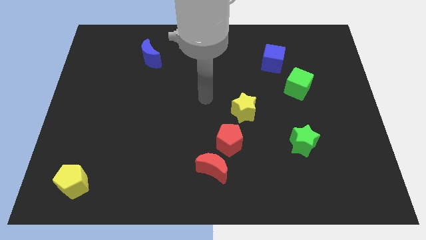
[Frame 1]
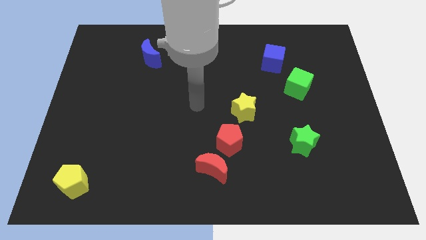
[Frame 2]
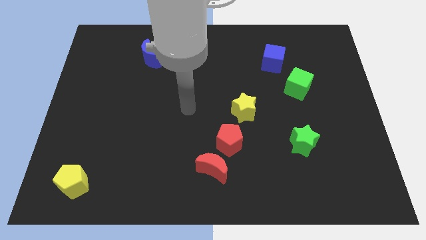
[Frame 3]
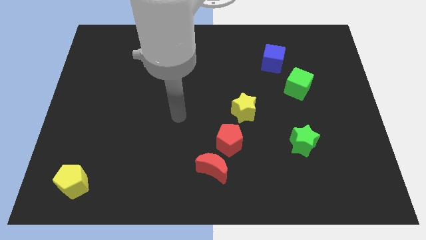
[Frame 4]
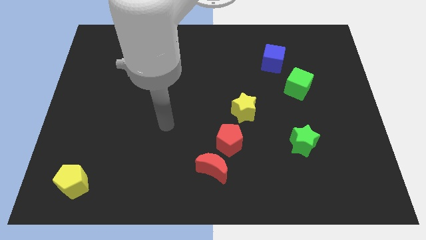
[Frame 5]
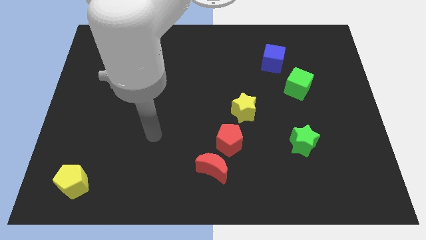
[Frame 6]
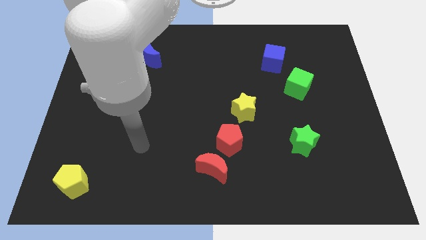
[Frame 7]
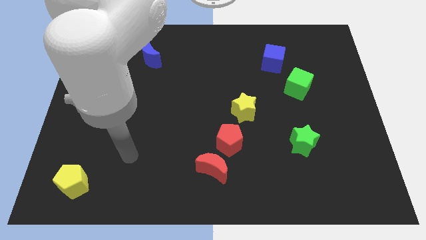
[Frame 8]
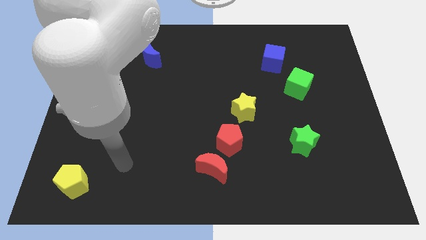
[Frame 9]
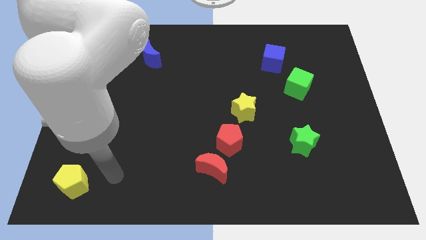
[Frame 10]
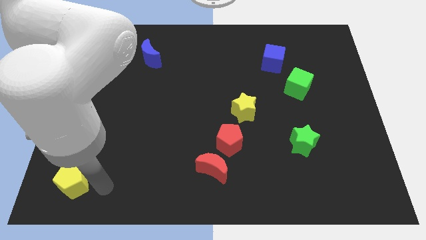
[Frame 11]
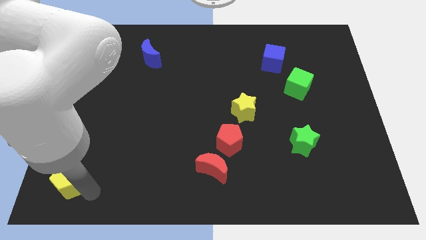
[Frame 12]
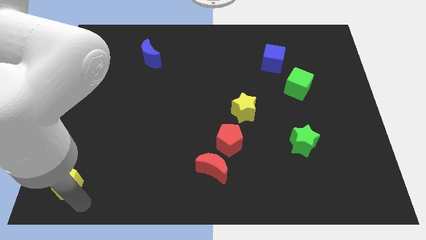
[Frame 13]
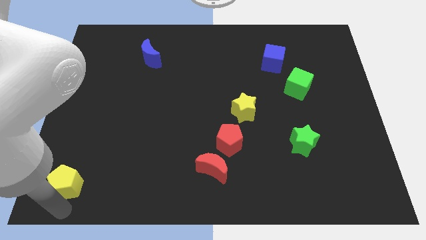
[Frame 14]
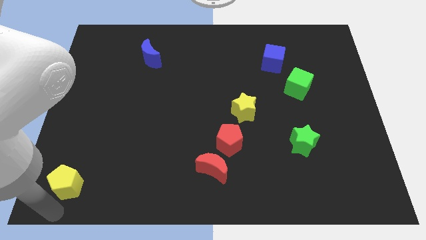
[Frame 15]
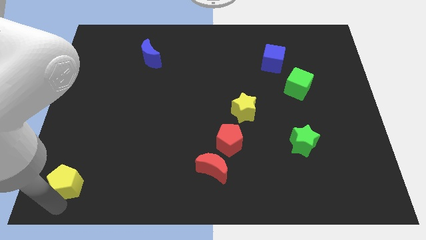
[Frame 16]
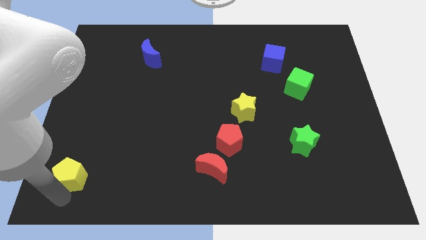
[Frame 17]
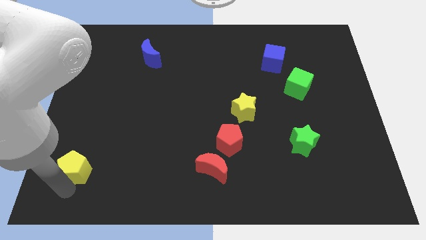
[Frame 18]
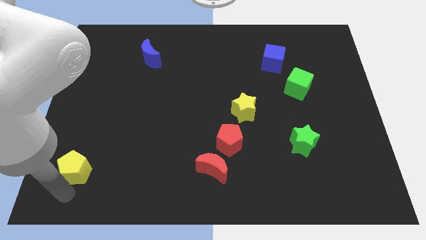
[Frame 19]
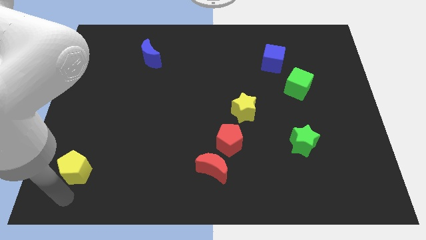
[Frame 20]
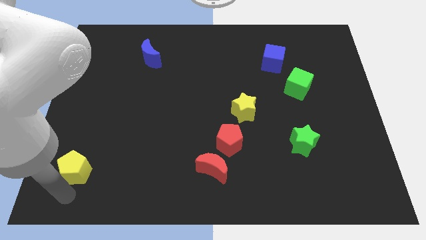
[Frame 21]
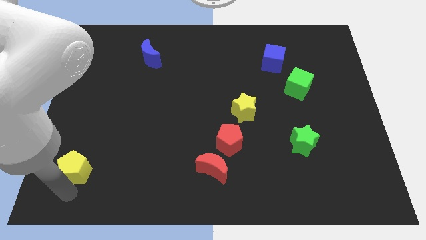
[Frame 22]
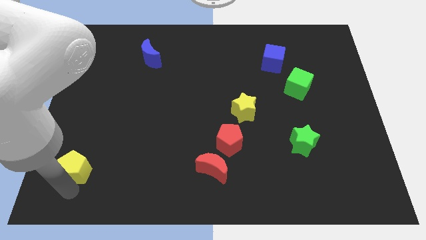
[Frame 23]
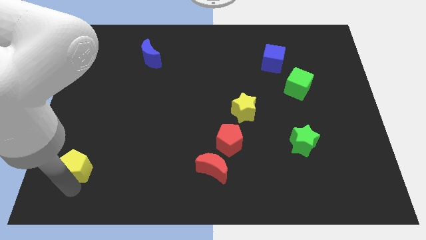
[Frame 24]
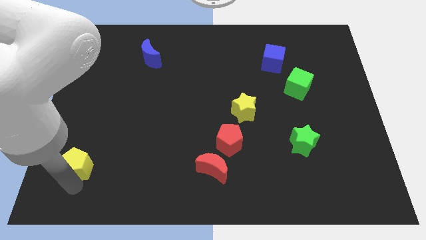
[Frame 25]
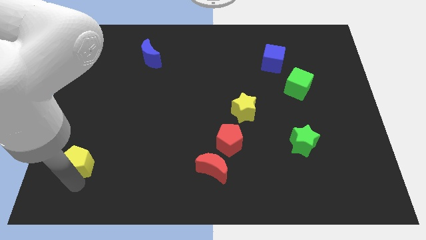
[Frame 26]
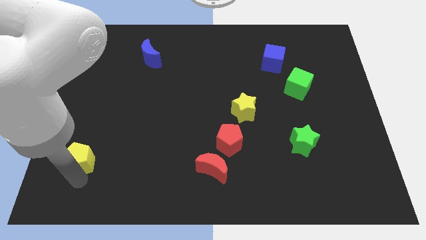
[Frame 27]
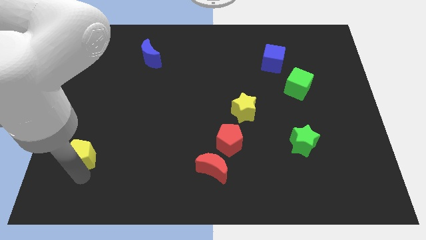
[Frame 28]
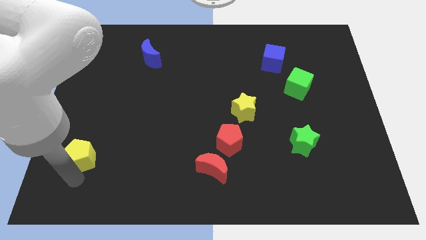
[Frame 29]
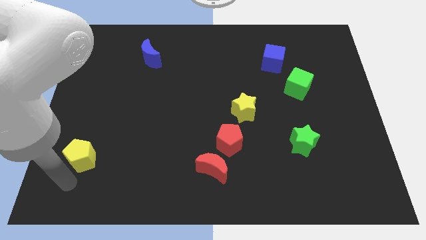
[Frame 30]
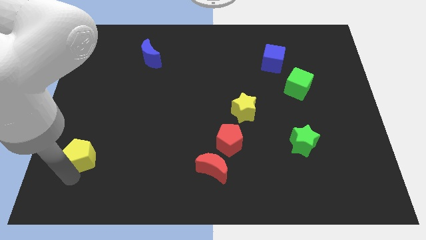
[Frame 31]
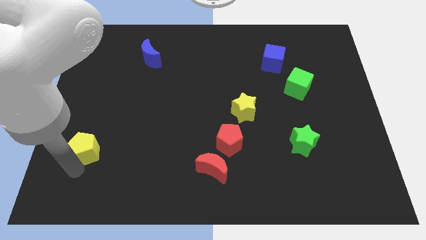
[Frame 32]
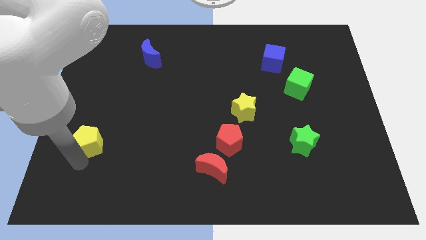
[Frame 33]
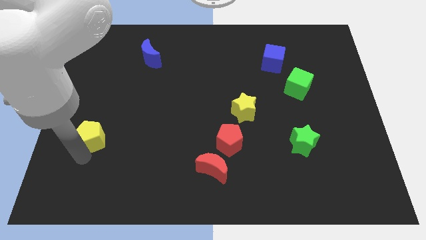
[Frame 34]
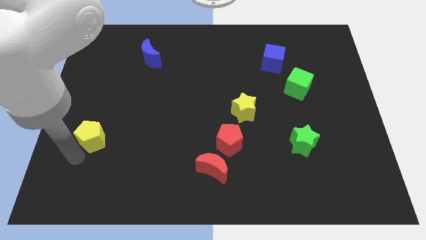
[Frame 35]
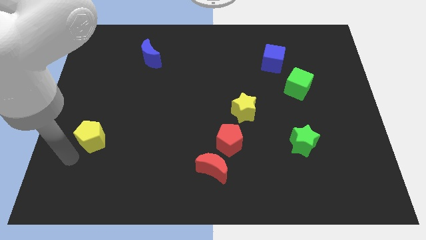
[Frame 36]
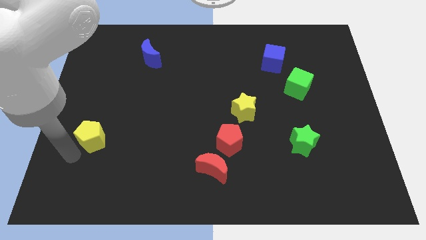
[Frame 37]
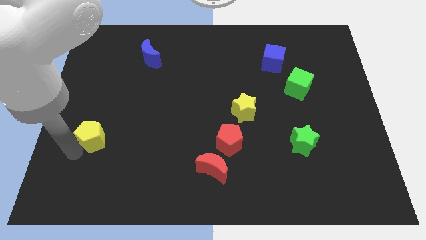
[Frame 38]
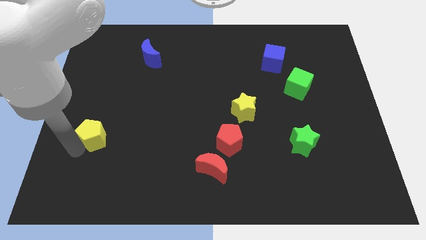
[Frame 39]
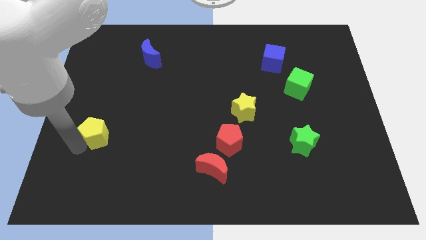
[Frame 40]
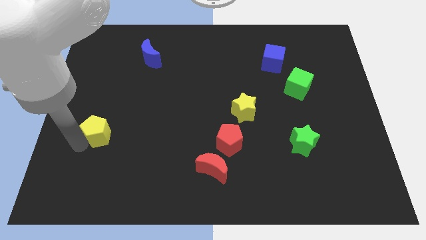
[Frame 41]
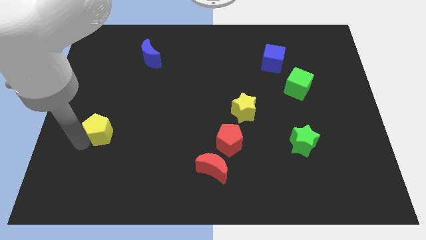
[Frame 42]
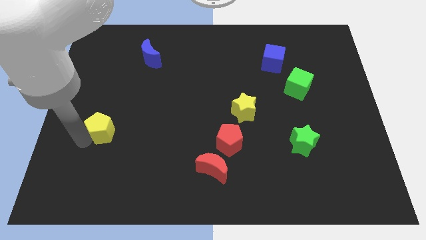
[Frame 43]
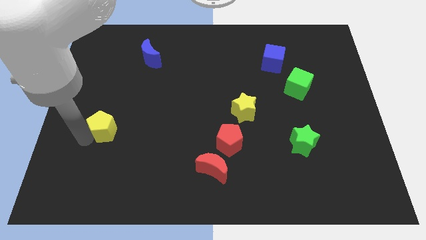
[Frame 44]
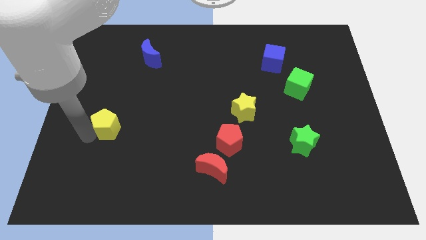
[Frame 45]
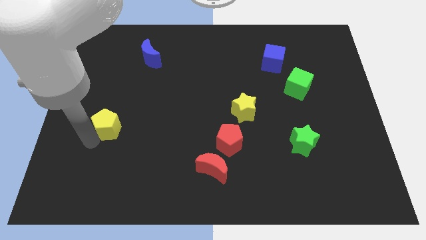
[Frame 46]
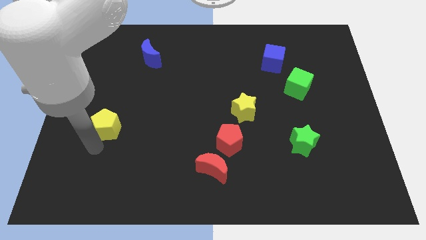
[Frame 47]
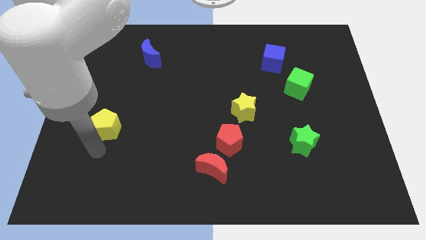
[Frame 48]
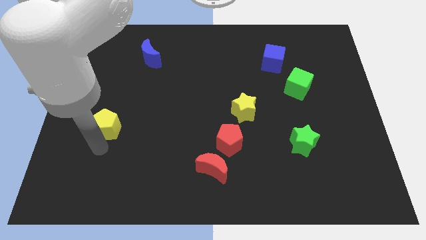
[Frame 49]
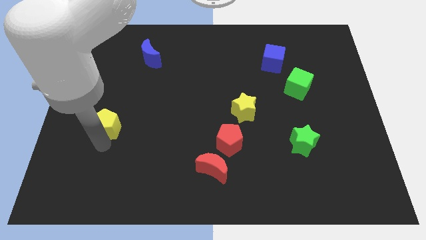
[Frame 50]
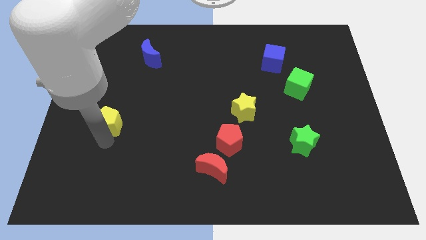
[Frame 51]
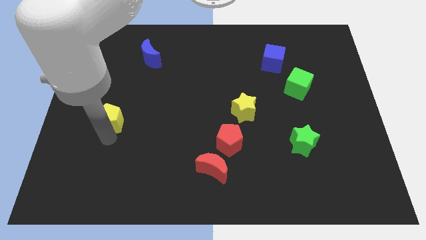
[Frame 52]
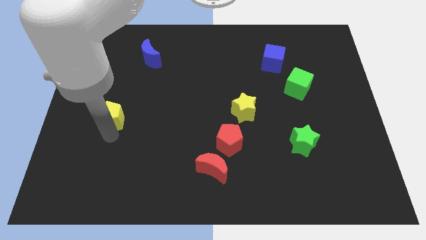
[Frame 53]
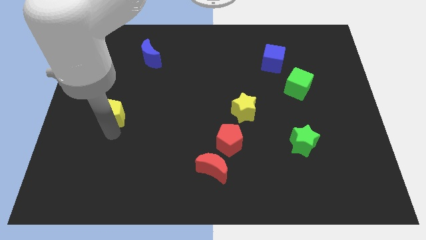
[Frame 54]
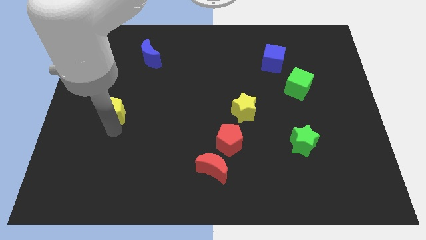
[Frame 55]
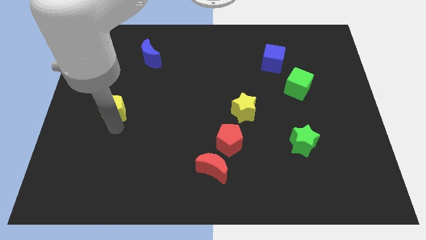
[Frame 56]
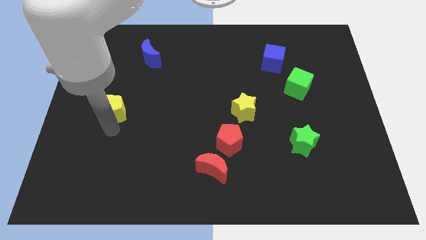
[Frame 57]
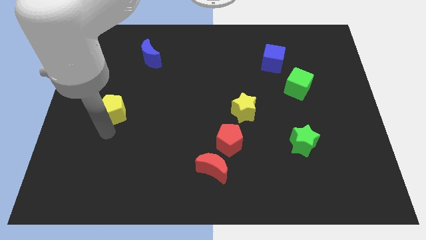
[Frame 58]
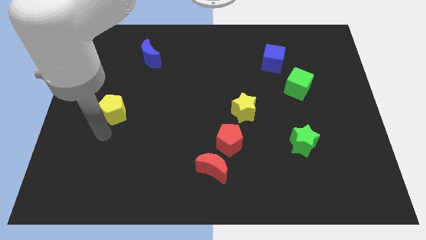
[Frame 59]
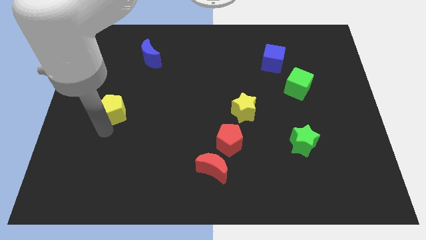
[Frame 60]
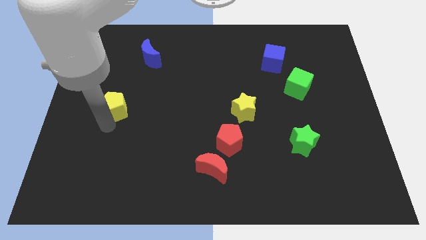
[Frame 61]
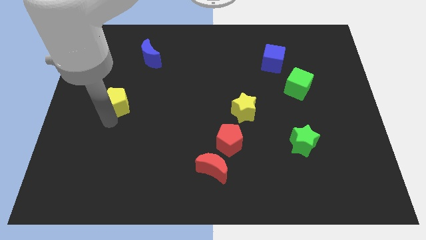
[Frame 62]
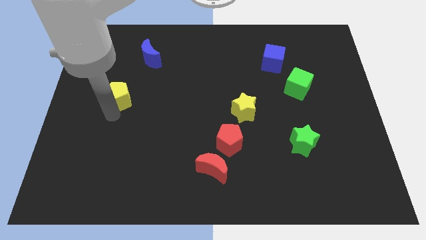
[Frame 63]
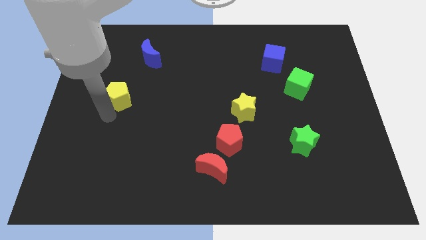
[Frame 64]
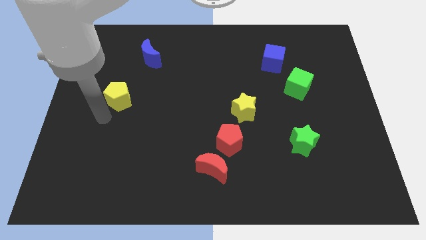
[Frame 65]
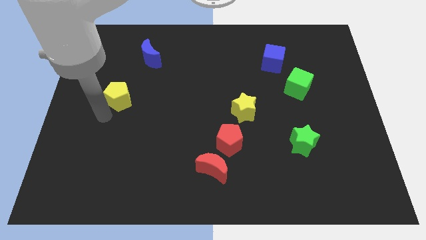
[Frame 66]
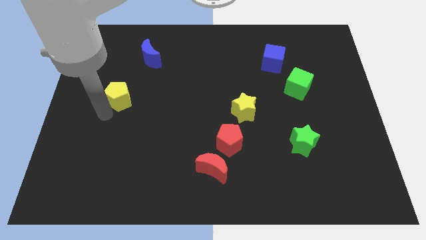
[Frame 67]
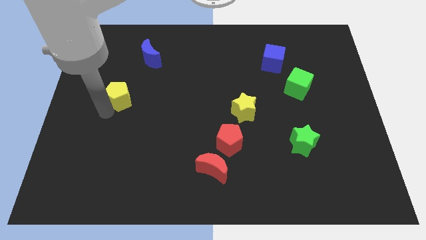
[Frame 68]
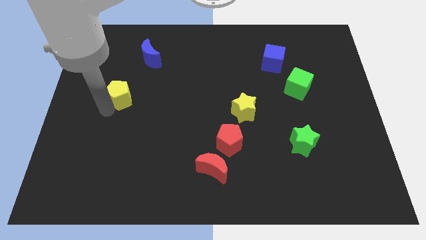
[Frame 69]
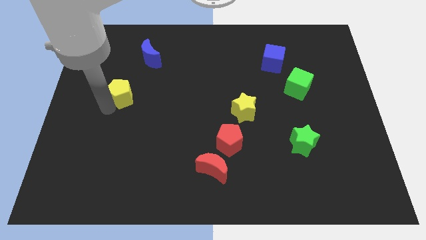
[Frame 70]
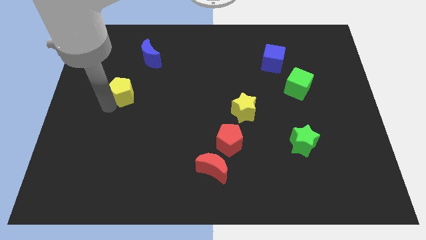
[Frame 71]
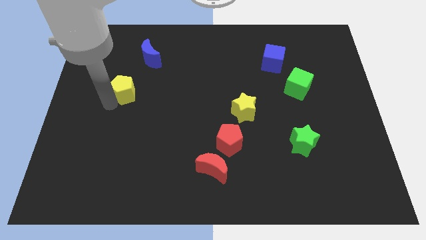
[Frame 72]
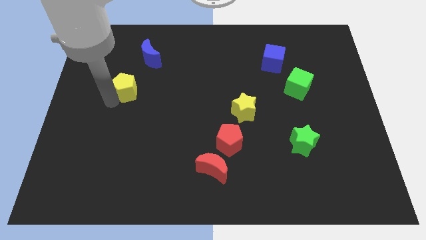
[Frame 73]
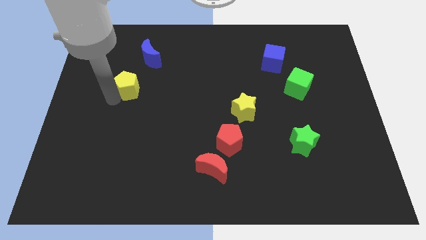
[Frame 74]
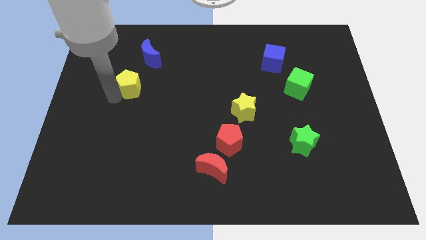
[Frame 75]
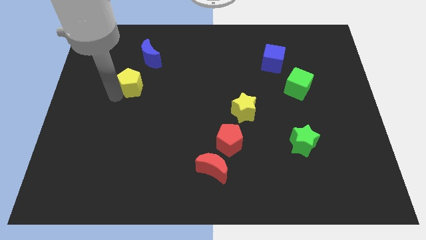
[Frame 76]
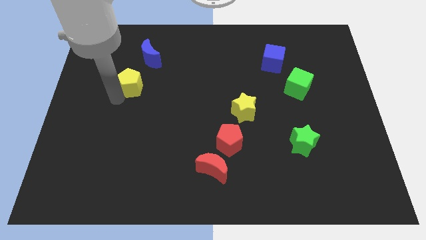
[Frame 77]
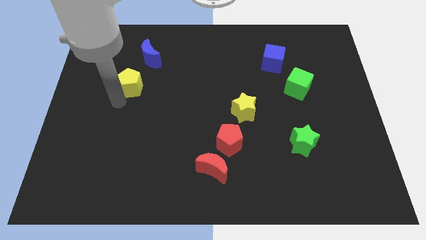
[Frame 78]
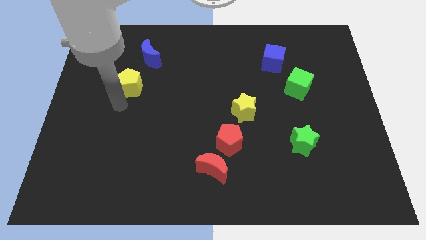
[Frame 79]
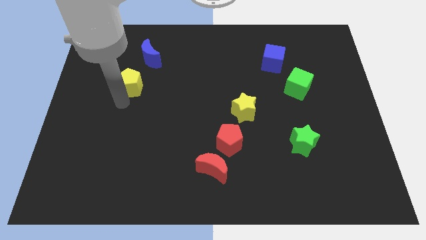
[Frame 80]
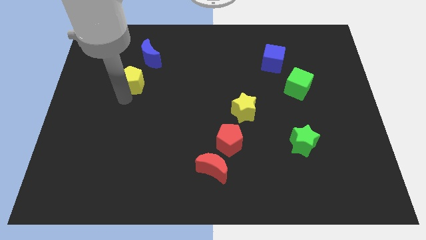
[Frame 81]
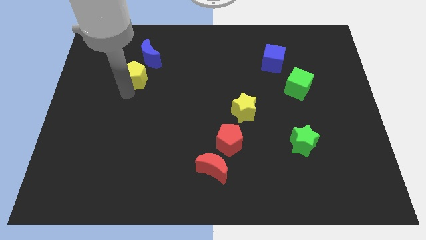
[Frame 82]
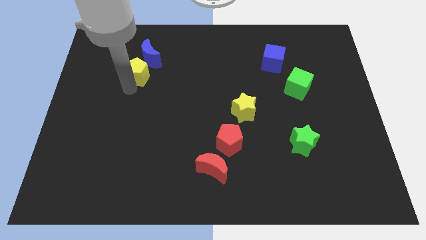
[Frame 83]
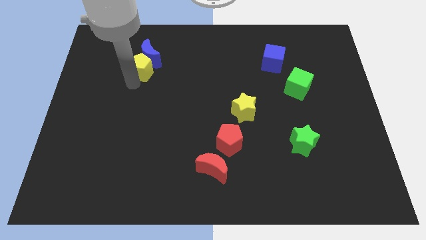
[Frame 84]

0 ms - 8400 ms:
push the yellow pentagon to the blue moon
